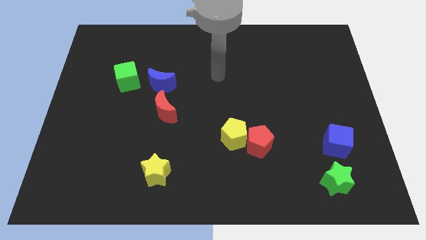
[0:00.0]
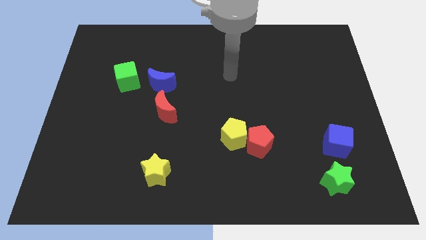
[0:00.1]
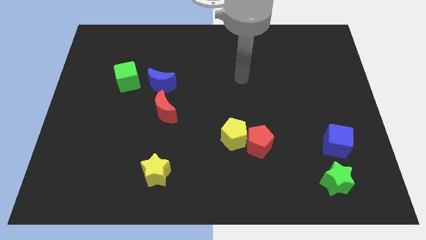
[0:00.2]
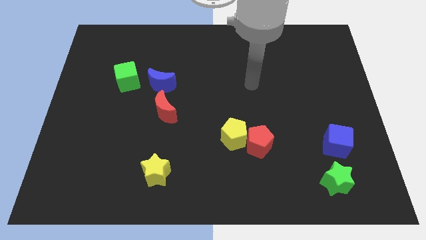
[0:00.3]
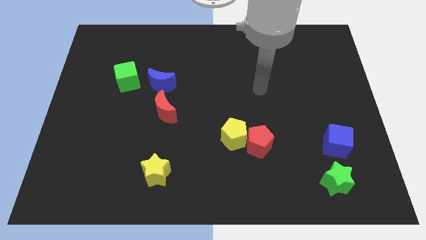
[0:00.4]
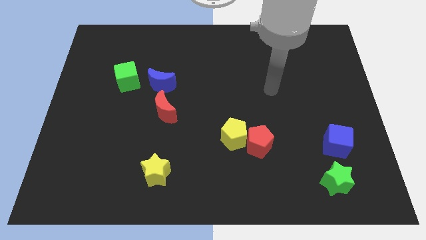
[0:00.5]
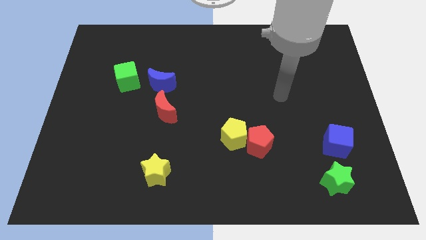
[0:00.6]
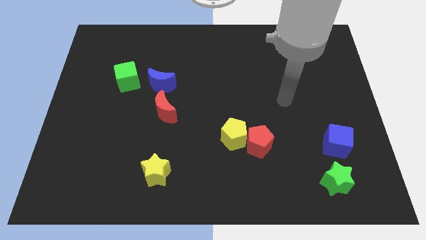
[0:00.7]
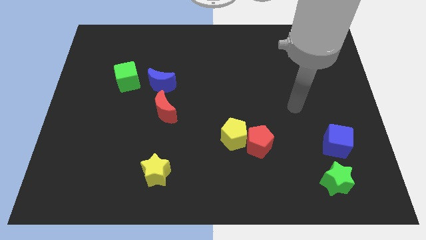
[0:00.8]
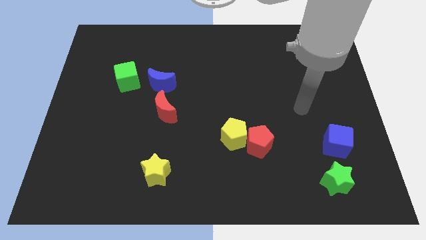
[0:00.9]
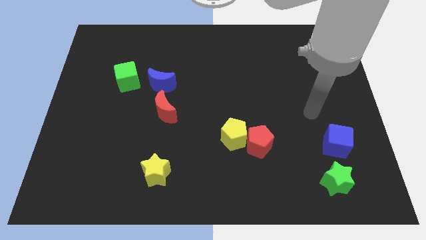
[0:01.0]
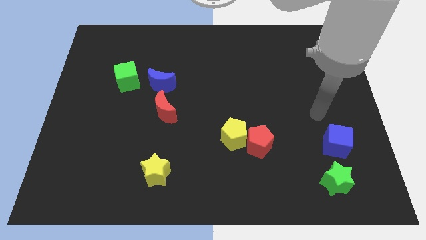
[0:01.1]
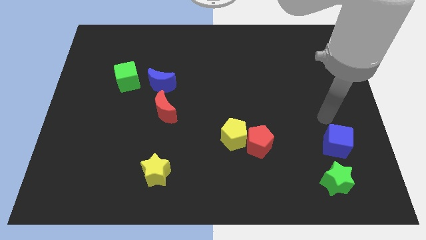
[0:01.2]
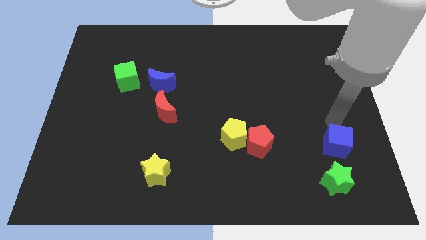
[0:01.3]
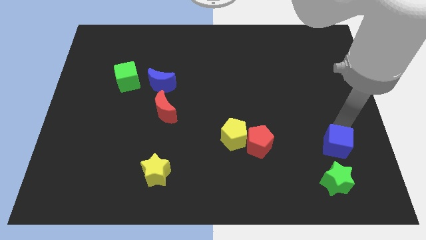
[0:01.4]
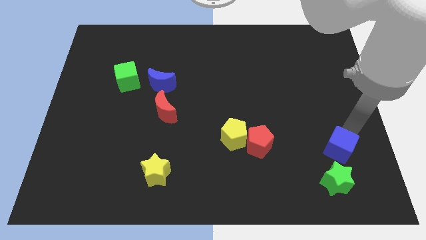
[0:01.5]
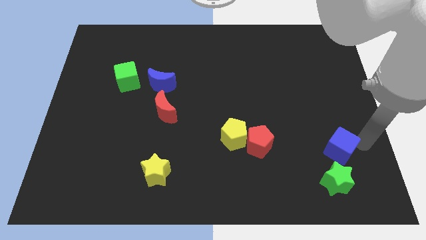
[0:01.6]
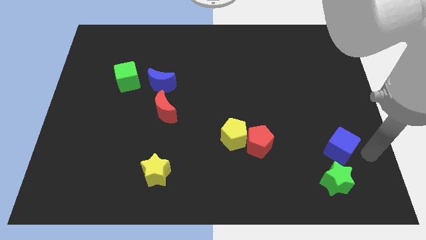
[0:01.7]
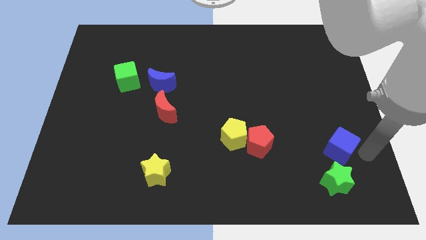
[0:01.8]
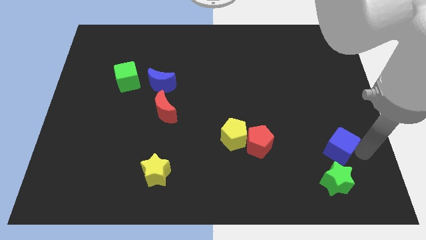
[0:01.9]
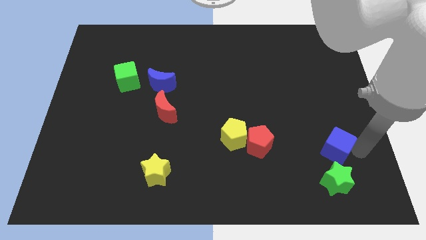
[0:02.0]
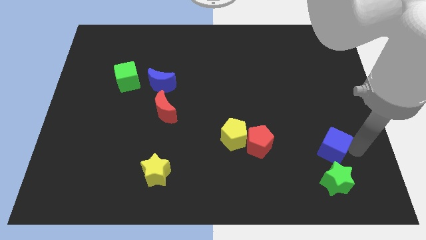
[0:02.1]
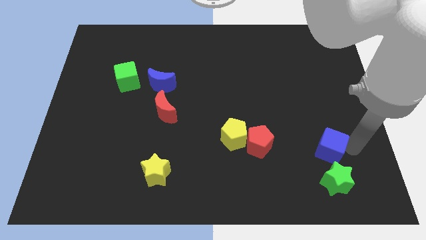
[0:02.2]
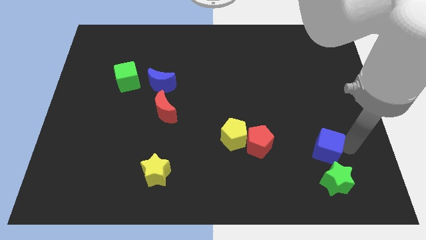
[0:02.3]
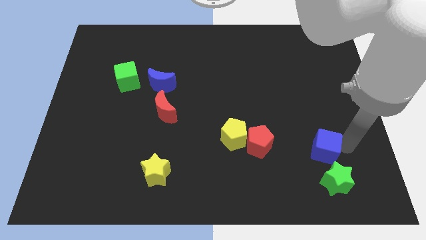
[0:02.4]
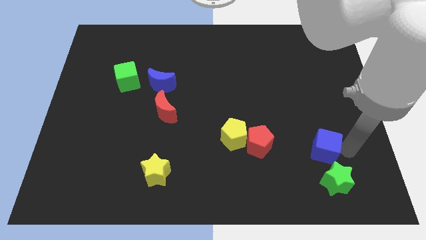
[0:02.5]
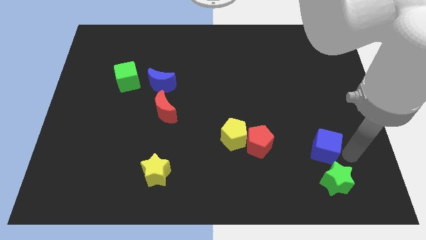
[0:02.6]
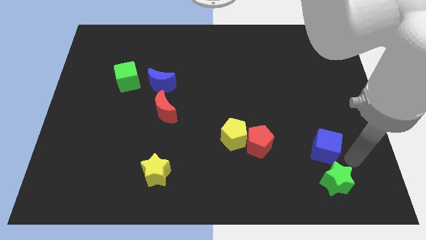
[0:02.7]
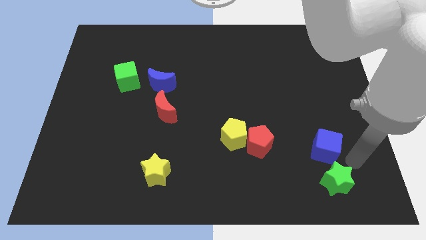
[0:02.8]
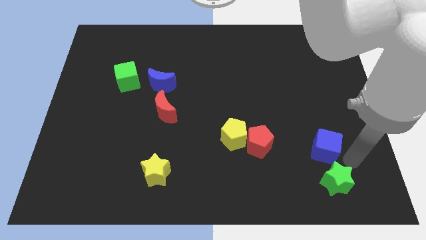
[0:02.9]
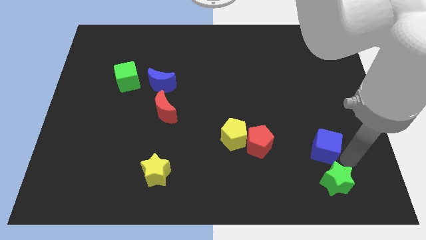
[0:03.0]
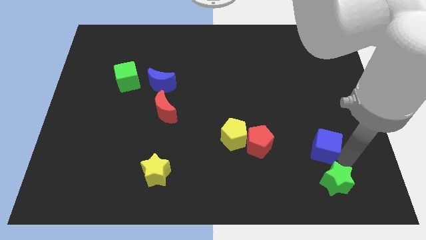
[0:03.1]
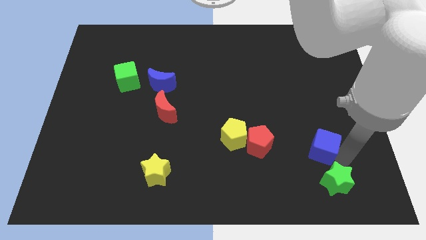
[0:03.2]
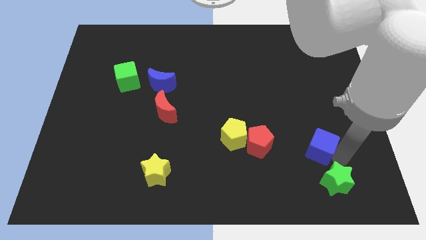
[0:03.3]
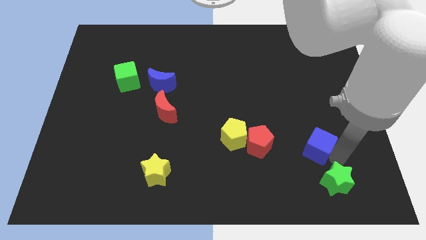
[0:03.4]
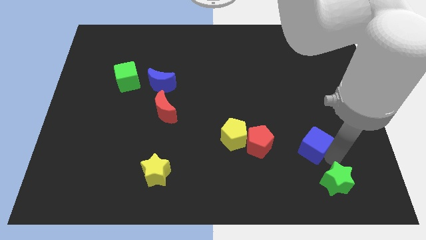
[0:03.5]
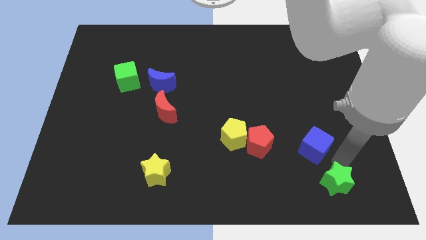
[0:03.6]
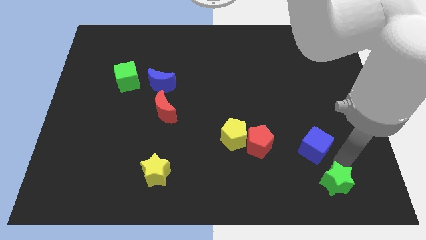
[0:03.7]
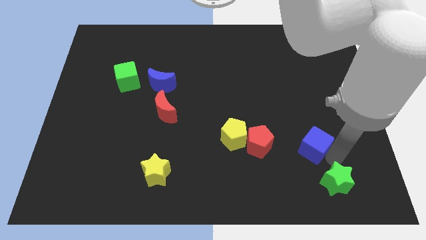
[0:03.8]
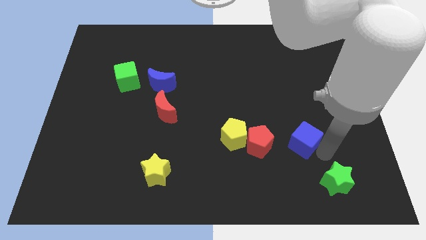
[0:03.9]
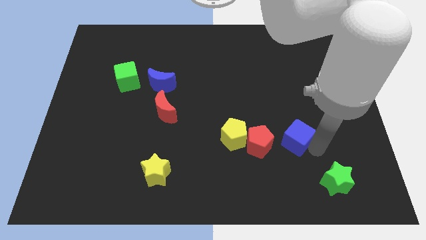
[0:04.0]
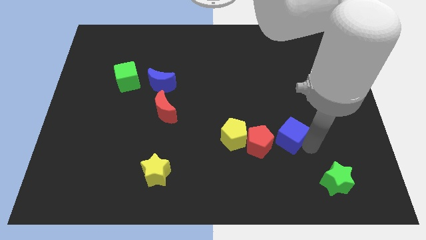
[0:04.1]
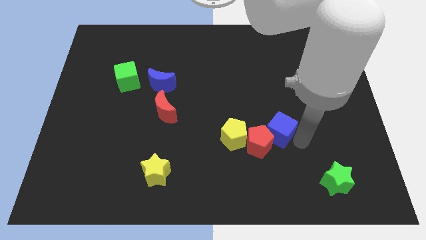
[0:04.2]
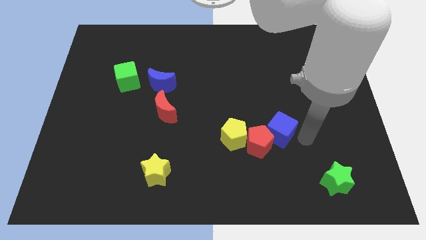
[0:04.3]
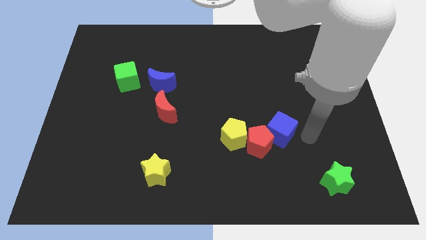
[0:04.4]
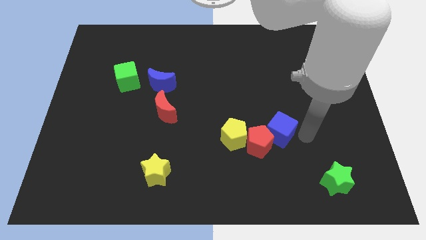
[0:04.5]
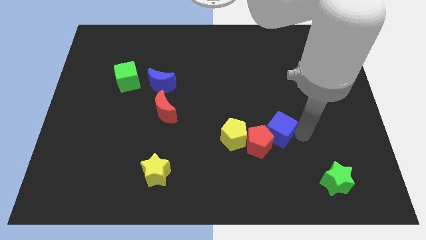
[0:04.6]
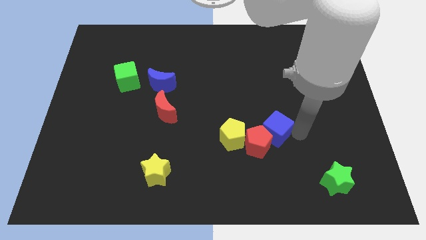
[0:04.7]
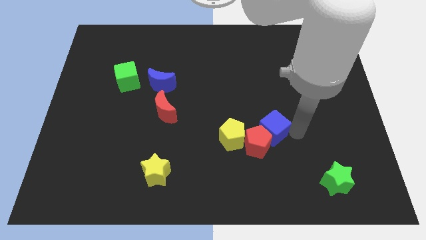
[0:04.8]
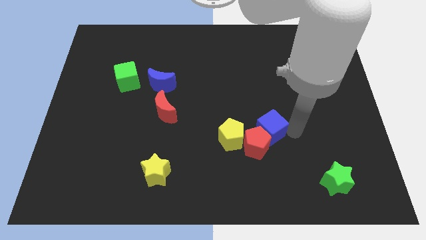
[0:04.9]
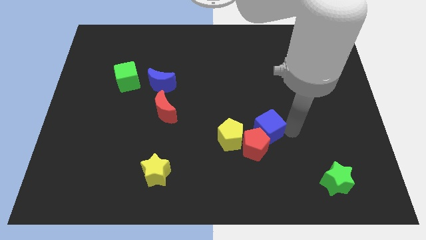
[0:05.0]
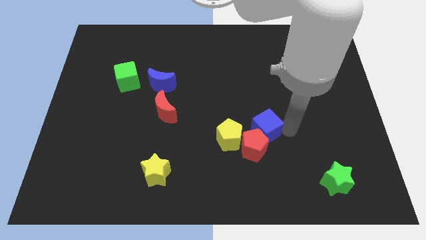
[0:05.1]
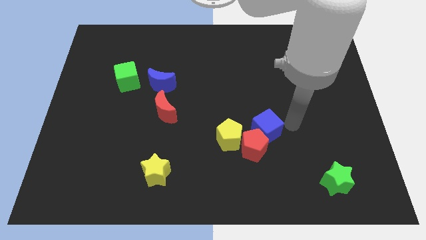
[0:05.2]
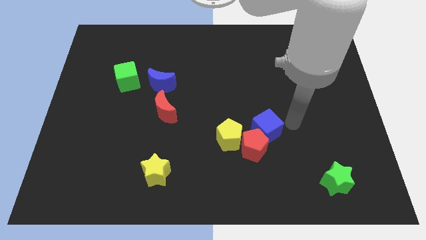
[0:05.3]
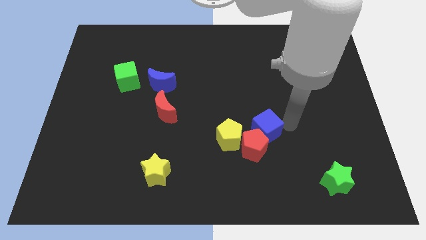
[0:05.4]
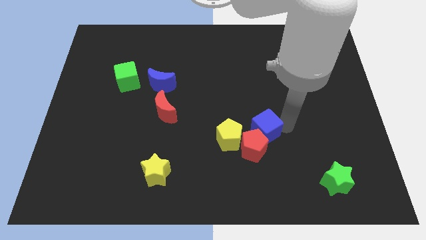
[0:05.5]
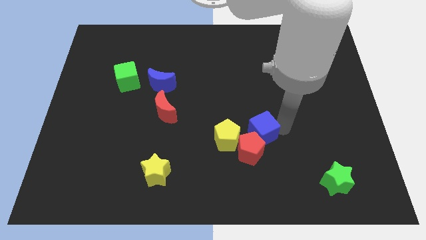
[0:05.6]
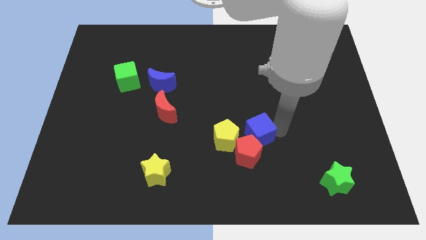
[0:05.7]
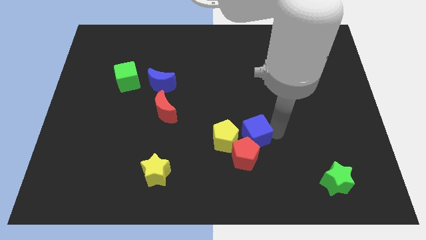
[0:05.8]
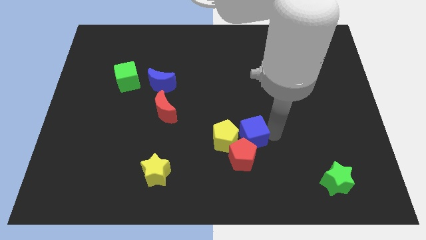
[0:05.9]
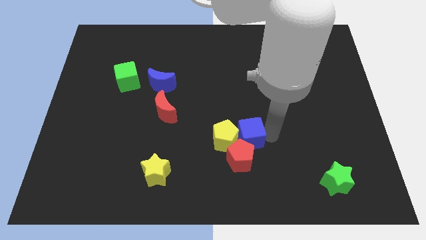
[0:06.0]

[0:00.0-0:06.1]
move the blue cube next to the yellow pentagon

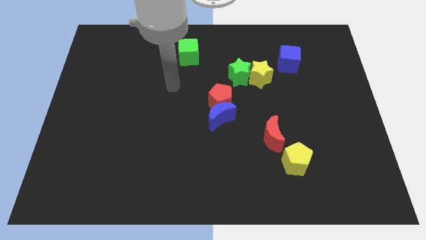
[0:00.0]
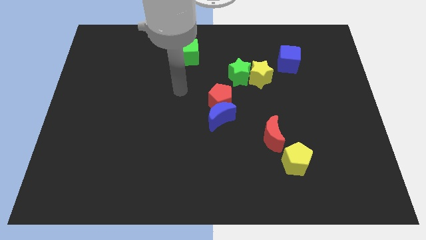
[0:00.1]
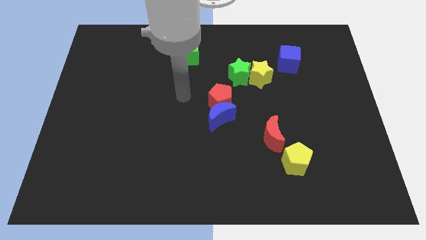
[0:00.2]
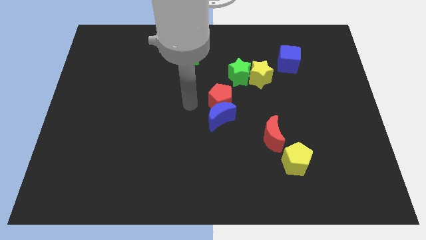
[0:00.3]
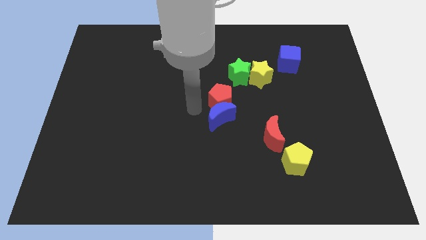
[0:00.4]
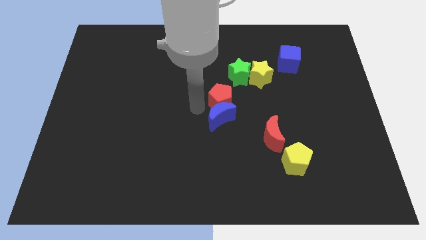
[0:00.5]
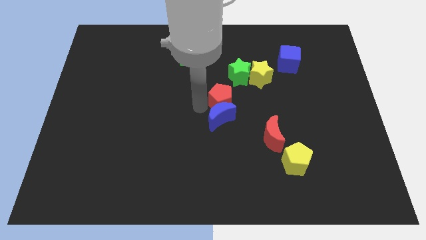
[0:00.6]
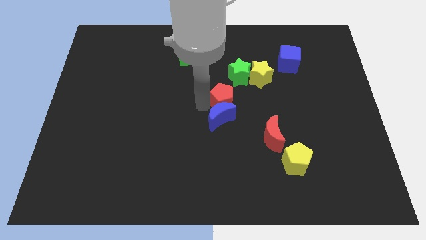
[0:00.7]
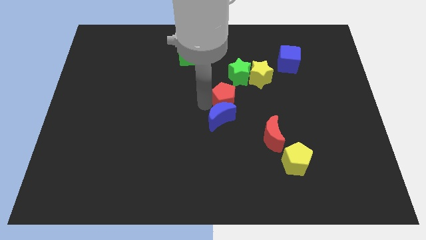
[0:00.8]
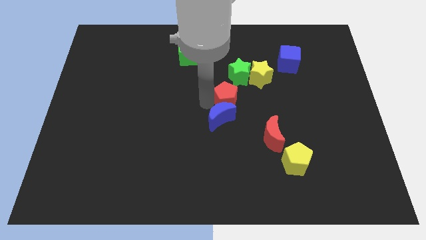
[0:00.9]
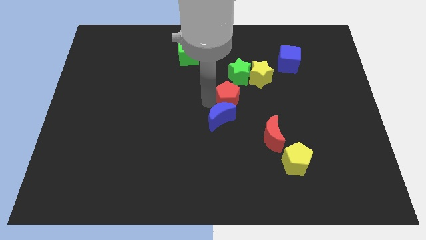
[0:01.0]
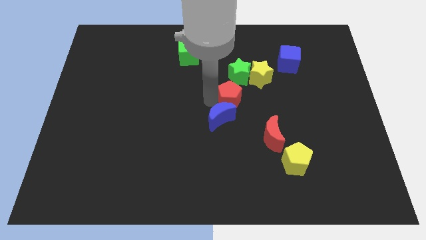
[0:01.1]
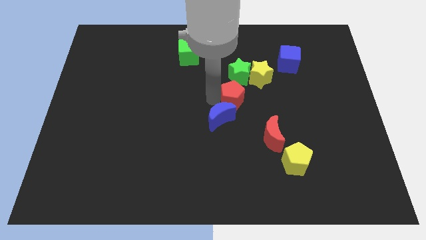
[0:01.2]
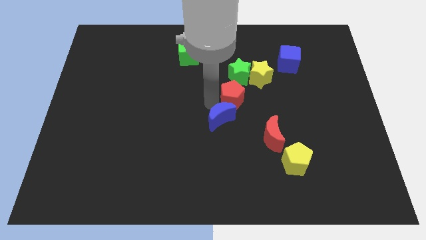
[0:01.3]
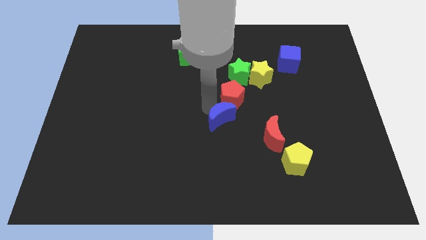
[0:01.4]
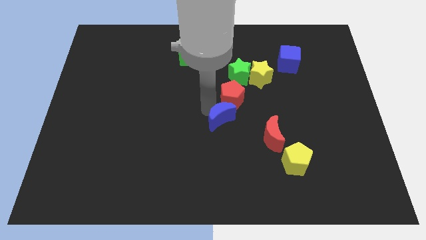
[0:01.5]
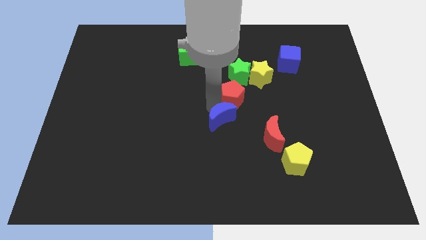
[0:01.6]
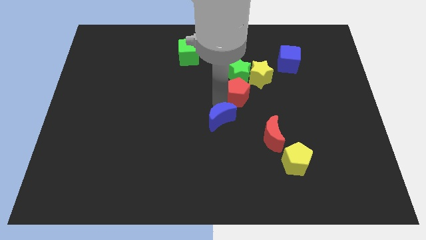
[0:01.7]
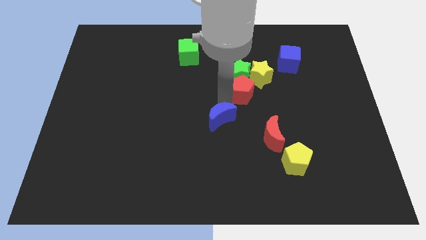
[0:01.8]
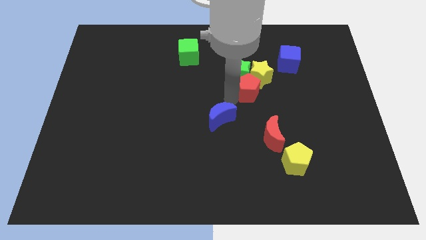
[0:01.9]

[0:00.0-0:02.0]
push the red pentagon next to the yellow star
